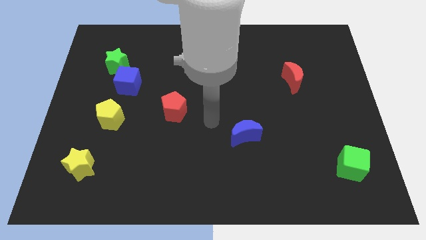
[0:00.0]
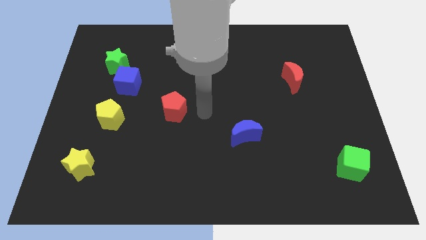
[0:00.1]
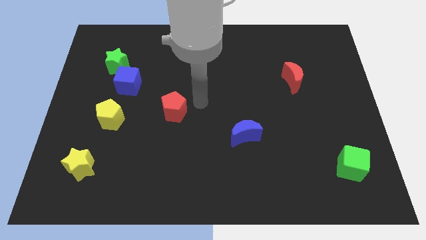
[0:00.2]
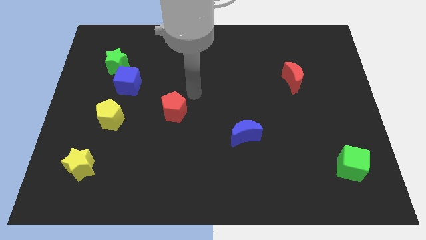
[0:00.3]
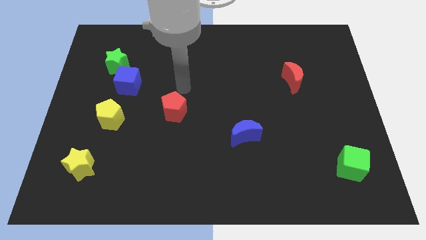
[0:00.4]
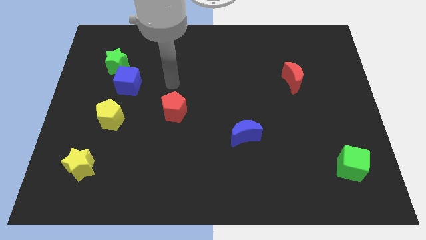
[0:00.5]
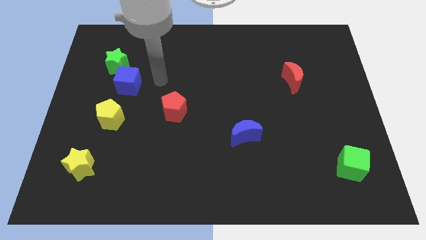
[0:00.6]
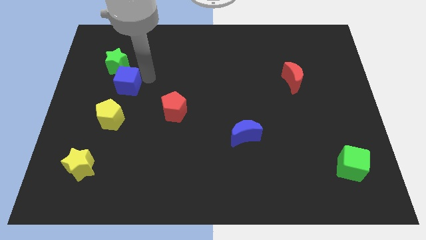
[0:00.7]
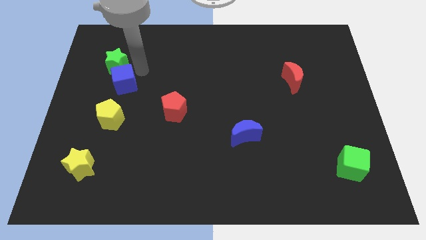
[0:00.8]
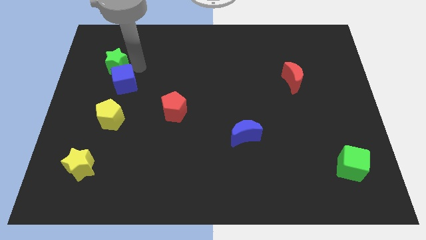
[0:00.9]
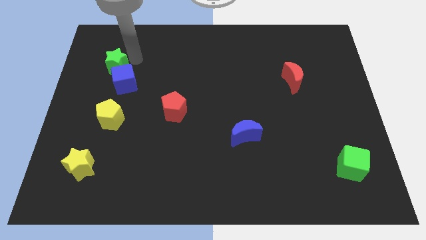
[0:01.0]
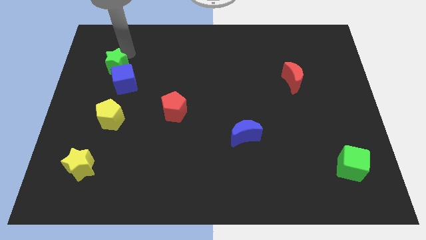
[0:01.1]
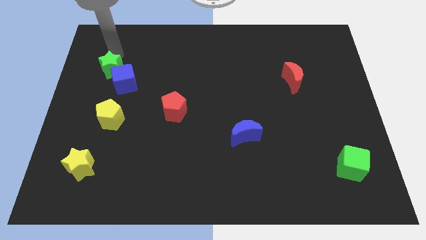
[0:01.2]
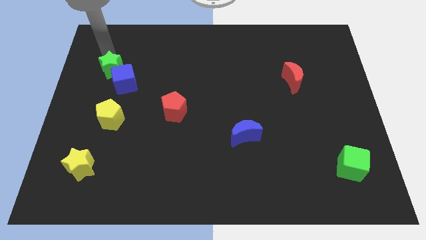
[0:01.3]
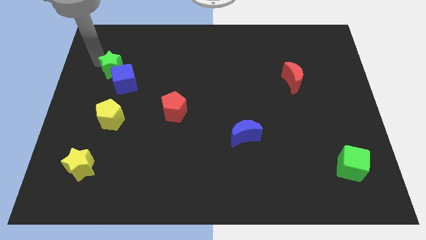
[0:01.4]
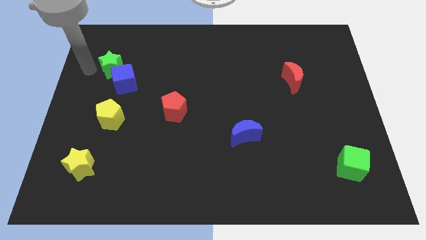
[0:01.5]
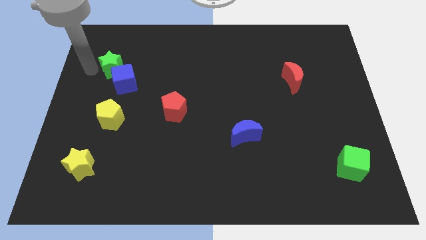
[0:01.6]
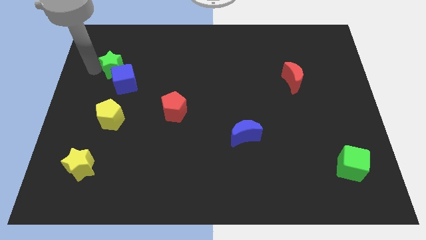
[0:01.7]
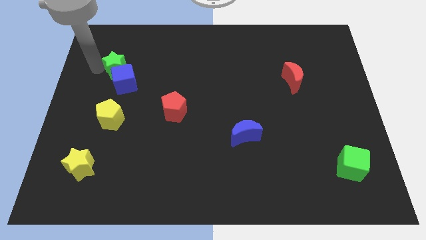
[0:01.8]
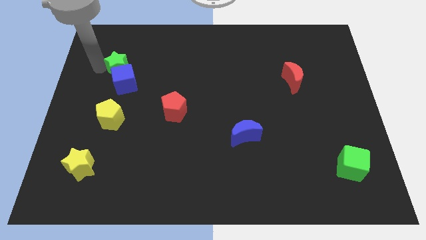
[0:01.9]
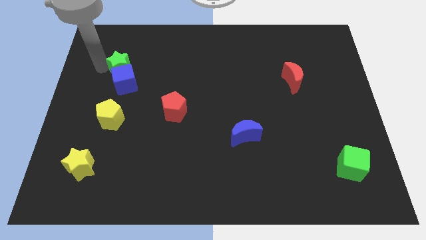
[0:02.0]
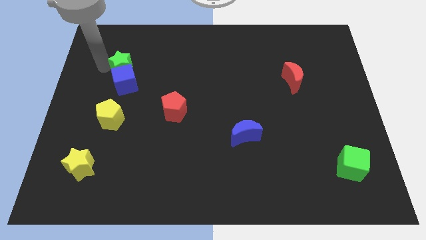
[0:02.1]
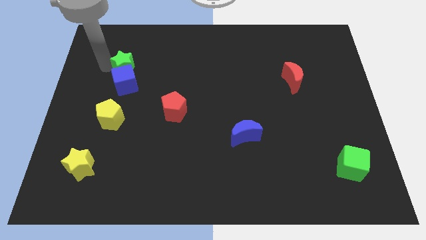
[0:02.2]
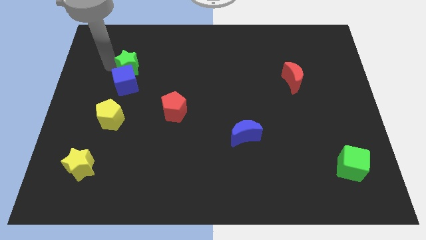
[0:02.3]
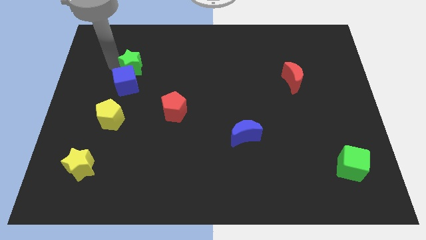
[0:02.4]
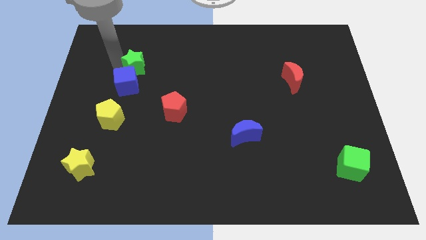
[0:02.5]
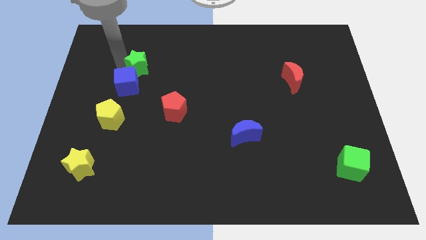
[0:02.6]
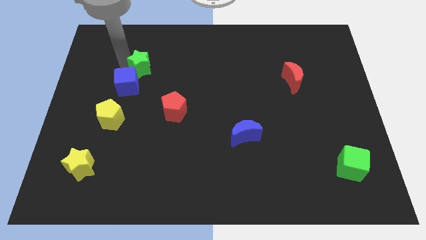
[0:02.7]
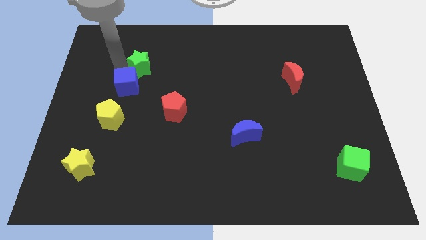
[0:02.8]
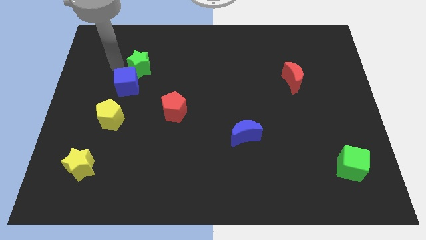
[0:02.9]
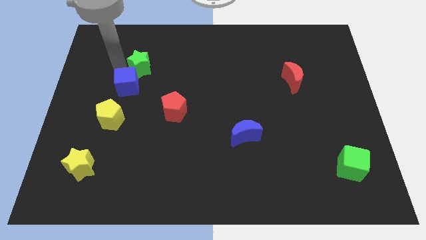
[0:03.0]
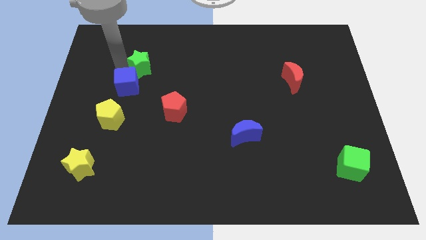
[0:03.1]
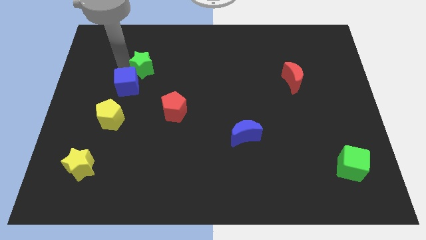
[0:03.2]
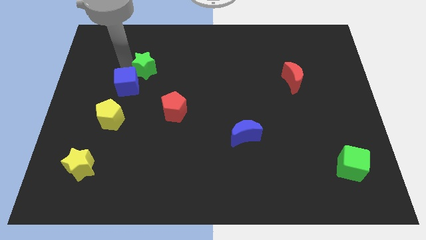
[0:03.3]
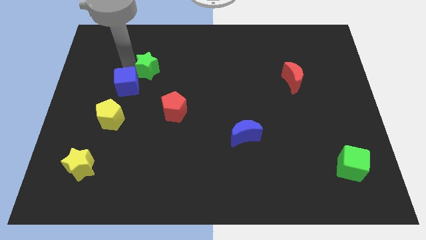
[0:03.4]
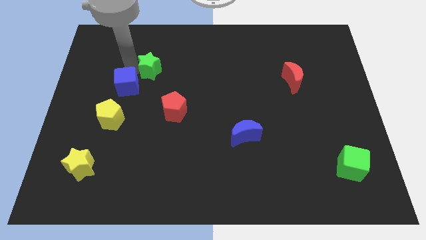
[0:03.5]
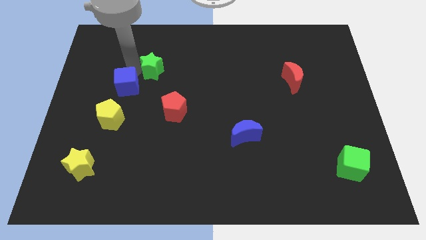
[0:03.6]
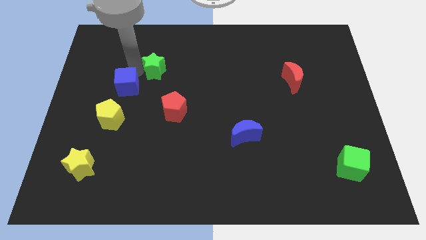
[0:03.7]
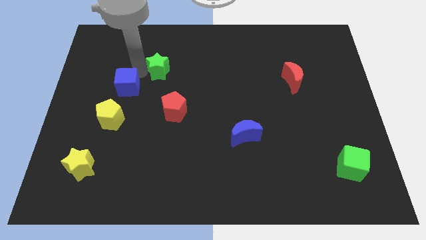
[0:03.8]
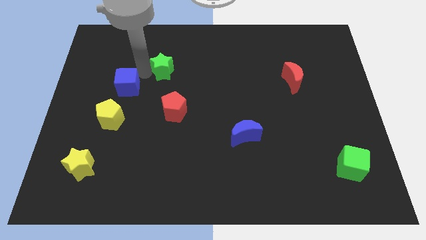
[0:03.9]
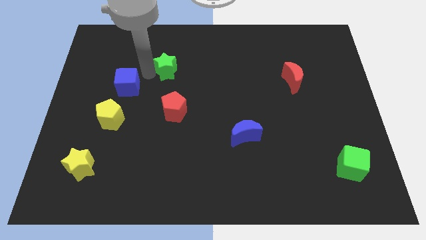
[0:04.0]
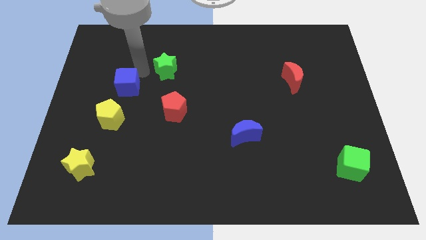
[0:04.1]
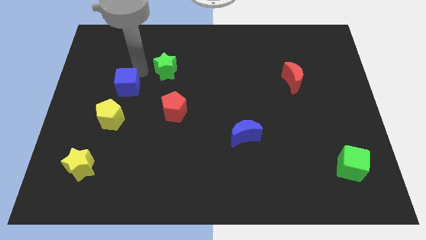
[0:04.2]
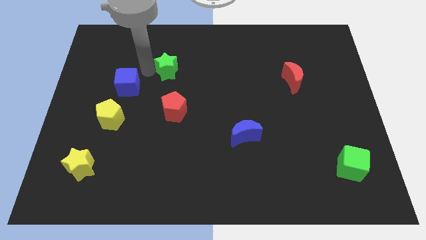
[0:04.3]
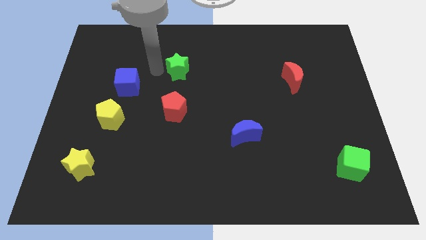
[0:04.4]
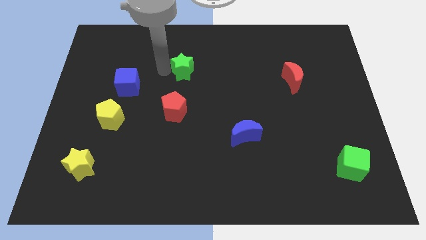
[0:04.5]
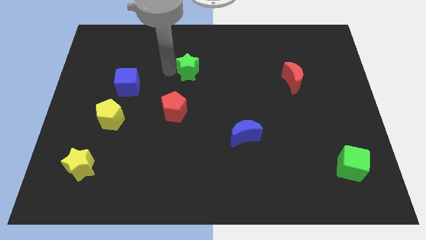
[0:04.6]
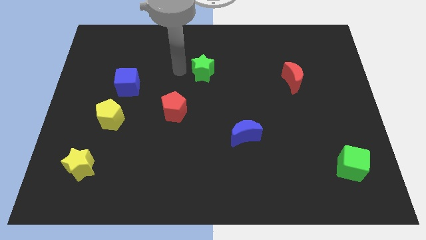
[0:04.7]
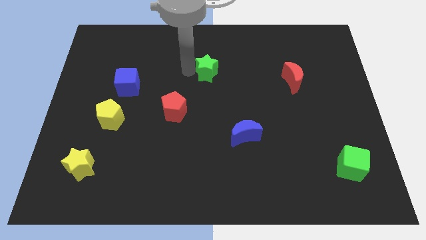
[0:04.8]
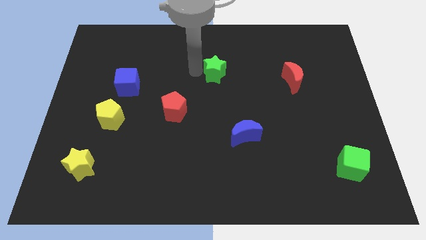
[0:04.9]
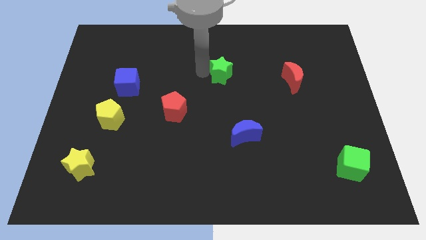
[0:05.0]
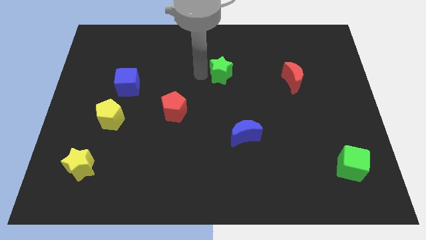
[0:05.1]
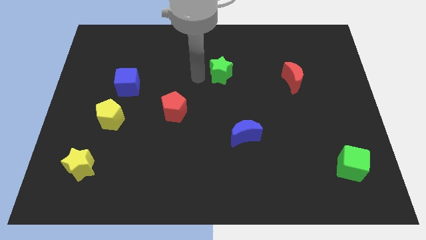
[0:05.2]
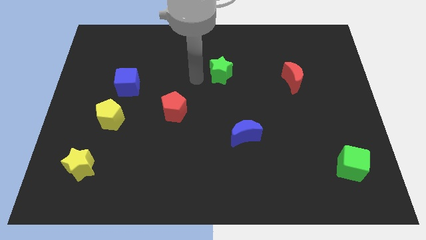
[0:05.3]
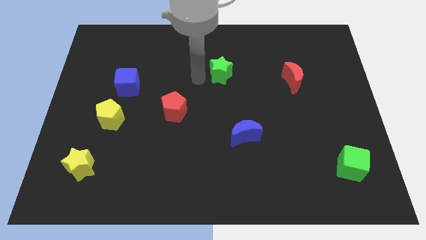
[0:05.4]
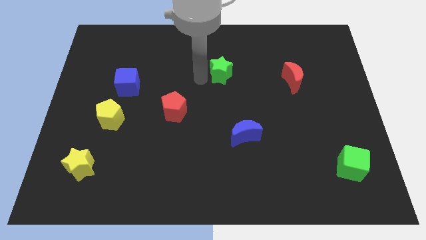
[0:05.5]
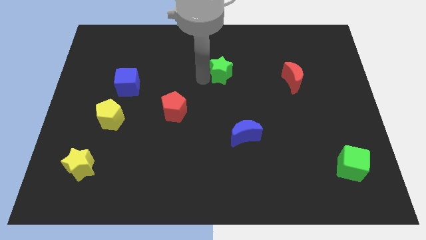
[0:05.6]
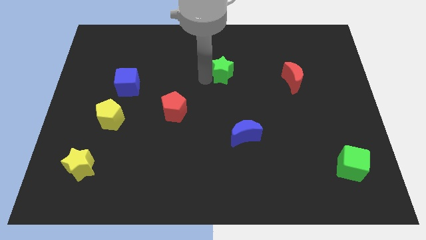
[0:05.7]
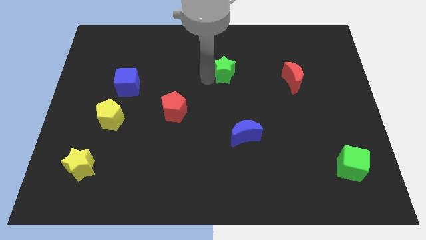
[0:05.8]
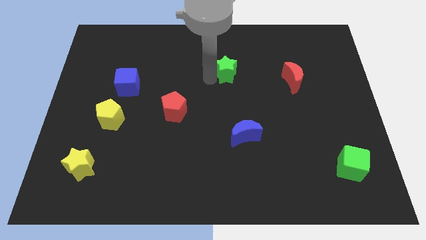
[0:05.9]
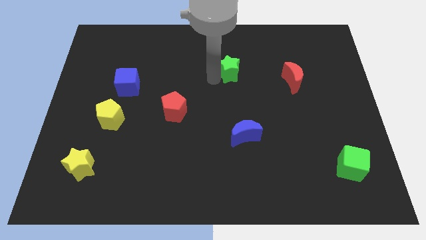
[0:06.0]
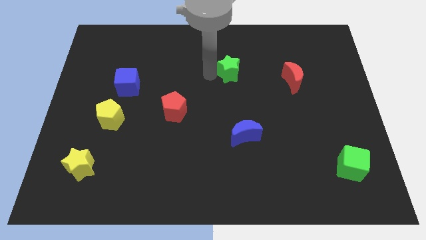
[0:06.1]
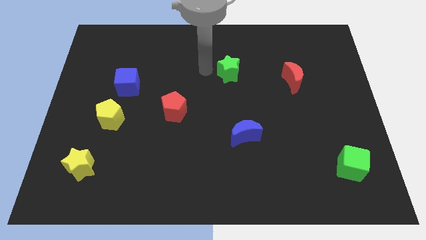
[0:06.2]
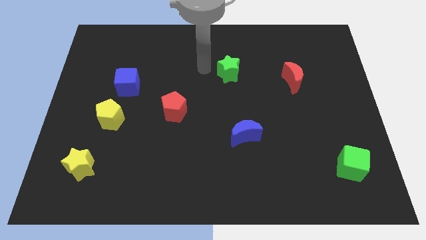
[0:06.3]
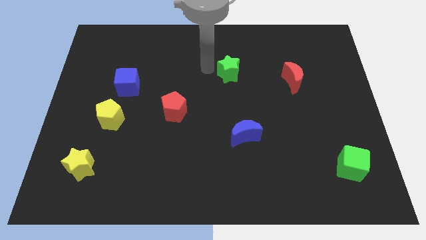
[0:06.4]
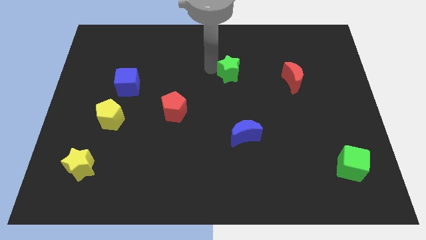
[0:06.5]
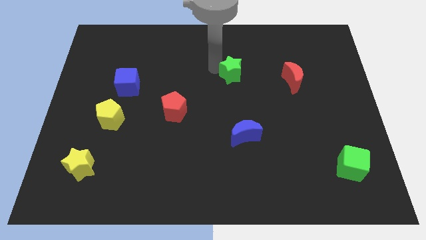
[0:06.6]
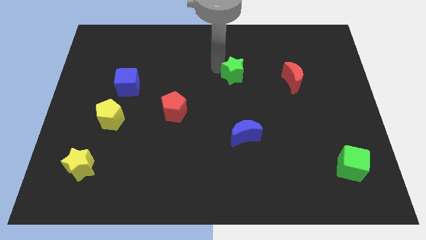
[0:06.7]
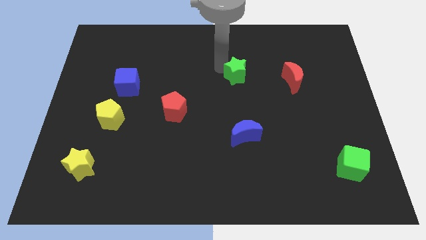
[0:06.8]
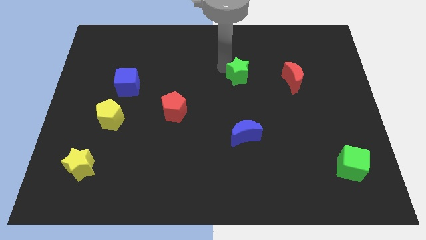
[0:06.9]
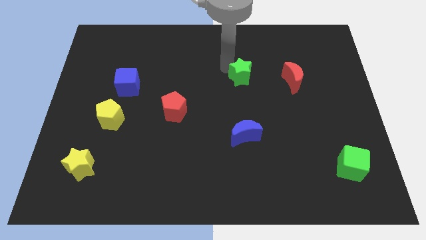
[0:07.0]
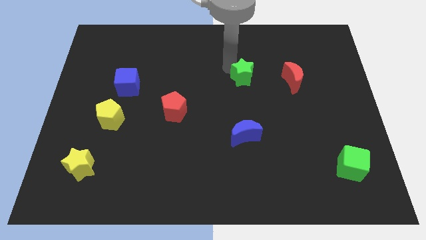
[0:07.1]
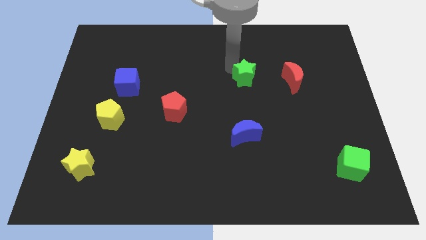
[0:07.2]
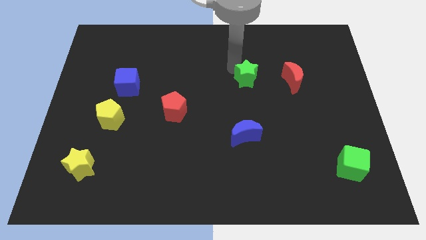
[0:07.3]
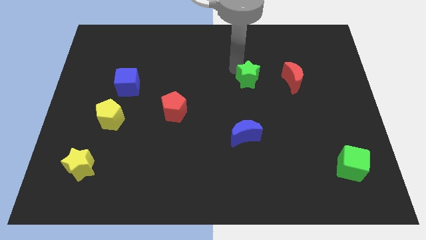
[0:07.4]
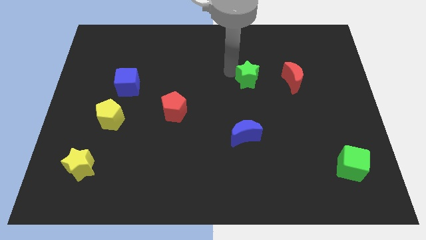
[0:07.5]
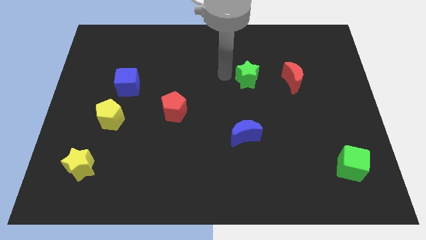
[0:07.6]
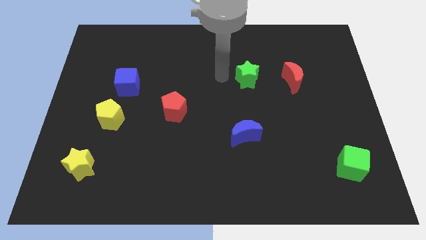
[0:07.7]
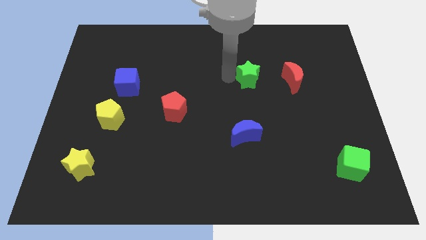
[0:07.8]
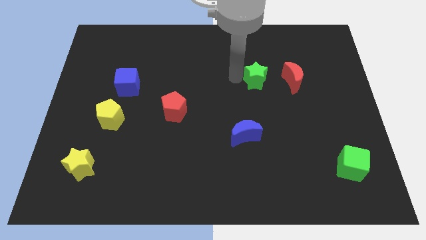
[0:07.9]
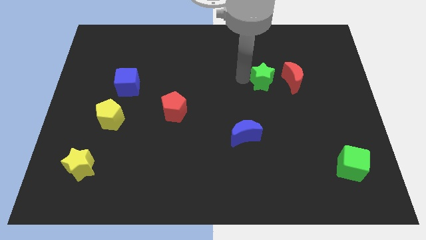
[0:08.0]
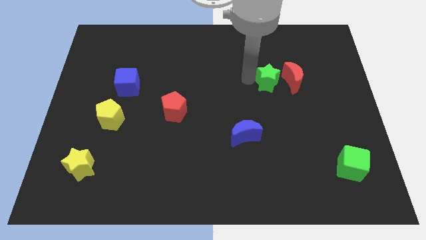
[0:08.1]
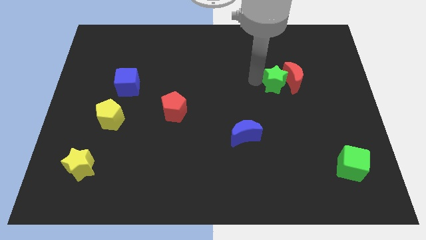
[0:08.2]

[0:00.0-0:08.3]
put the green star close to the red moon
